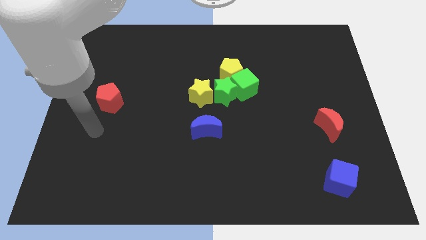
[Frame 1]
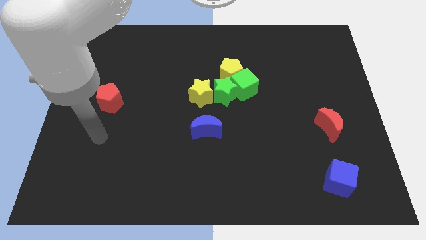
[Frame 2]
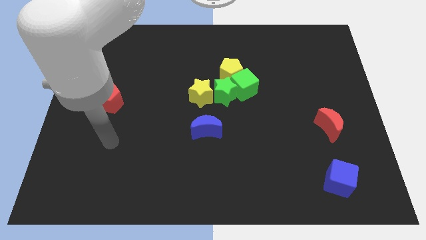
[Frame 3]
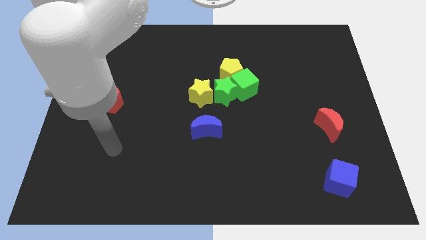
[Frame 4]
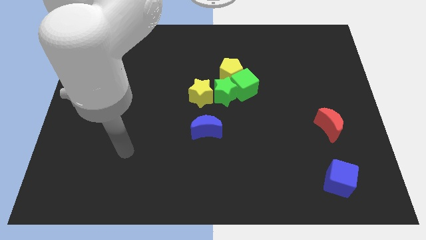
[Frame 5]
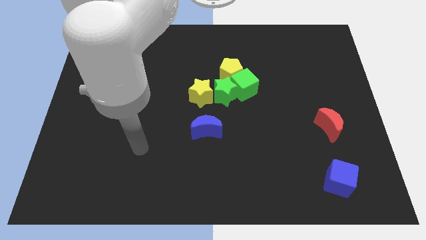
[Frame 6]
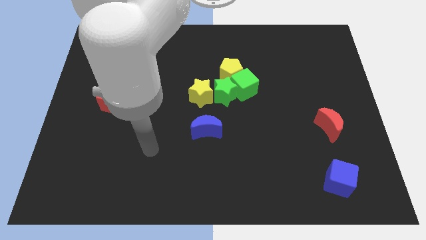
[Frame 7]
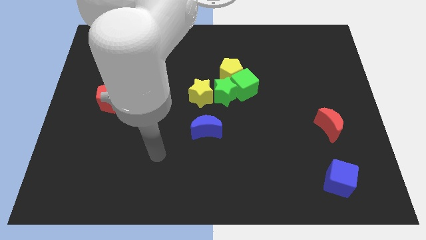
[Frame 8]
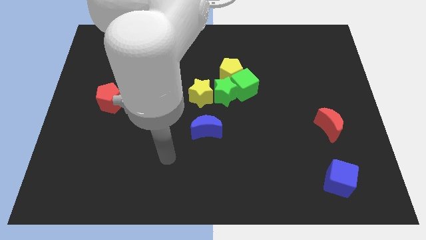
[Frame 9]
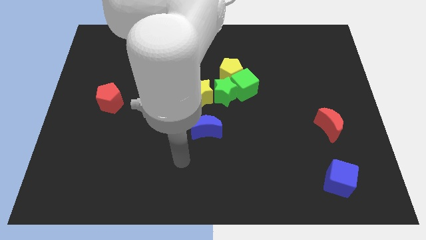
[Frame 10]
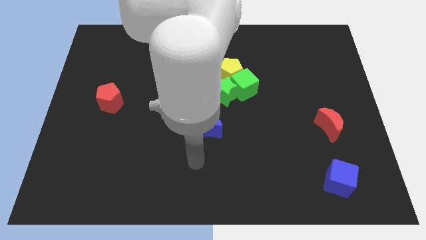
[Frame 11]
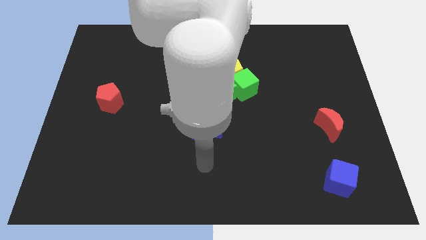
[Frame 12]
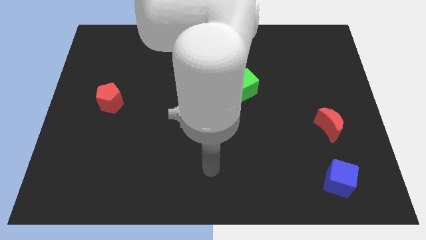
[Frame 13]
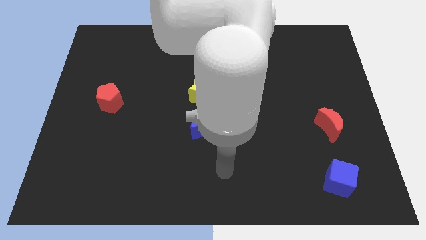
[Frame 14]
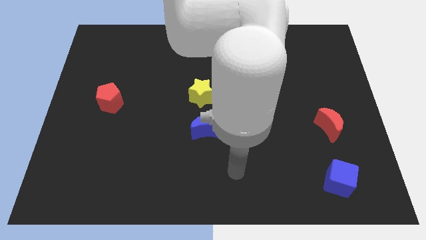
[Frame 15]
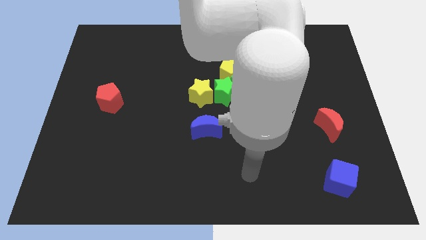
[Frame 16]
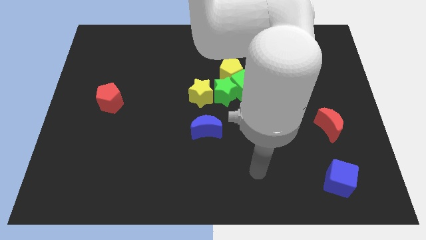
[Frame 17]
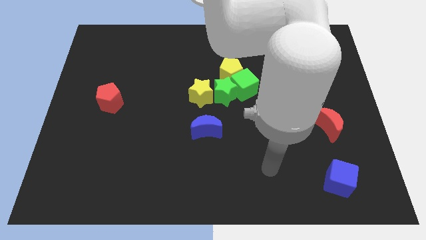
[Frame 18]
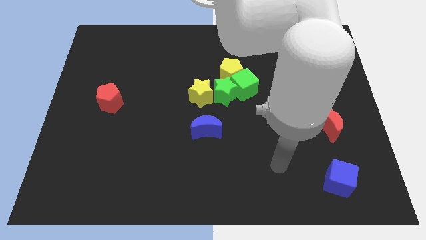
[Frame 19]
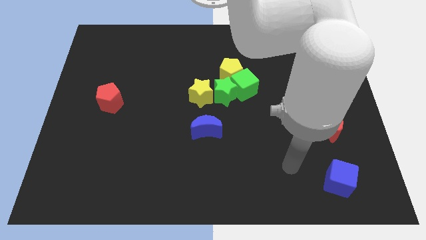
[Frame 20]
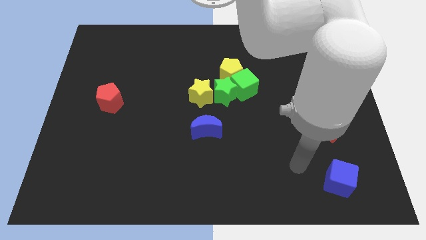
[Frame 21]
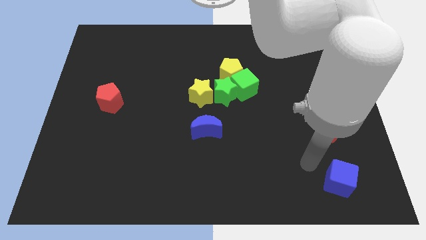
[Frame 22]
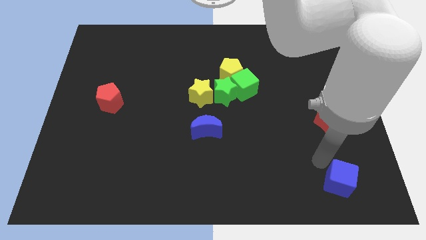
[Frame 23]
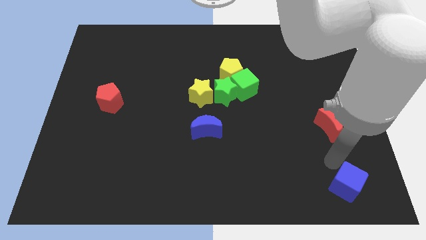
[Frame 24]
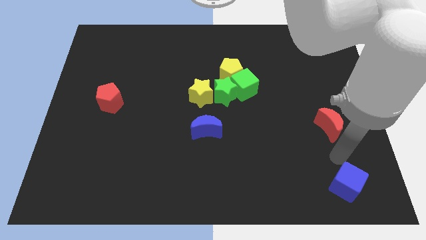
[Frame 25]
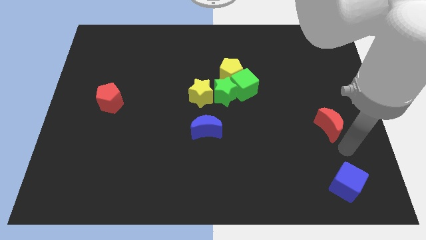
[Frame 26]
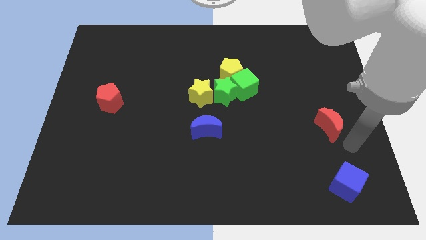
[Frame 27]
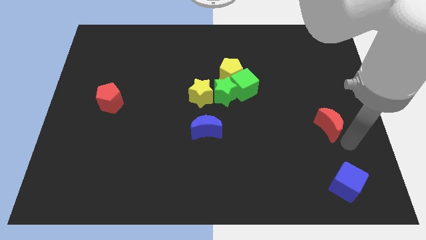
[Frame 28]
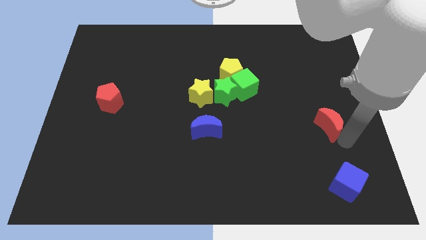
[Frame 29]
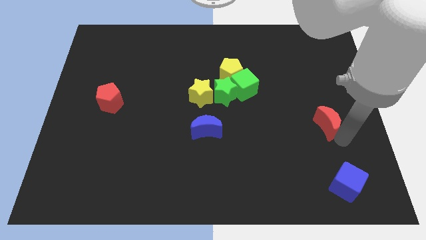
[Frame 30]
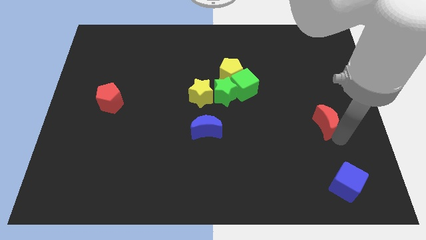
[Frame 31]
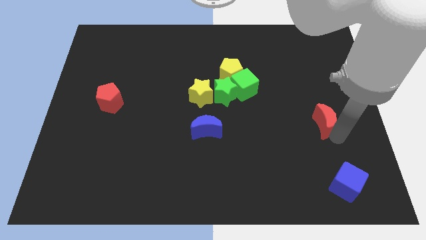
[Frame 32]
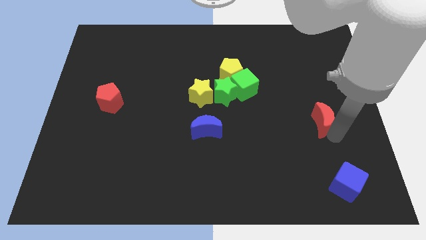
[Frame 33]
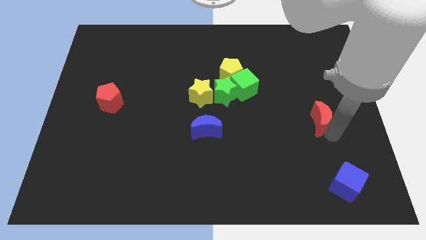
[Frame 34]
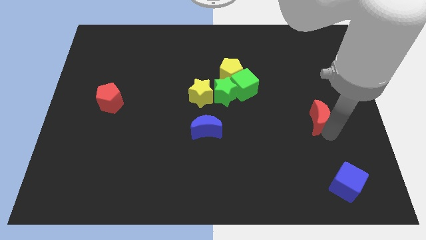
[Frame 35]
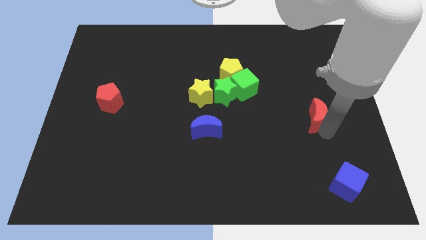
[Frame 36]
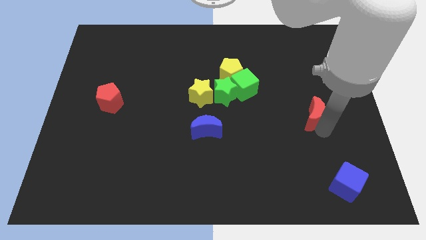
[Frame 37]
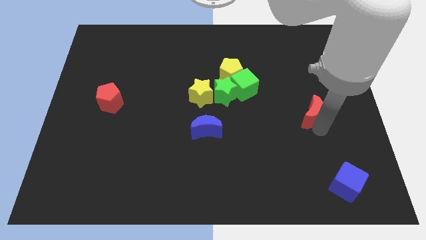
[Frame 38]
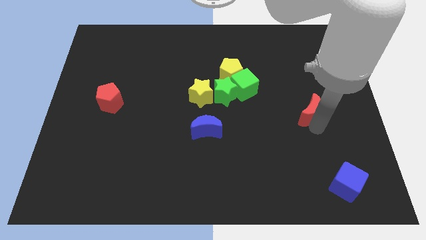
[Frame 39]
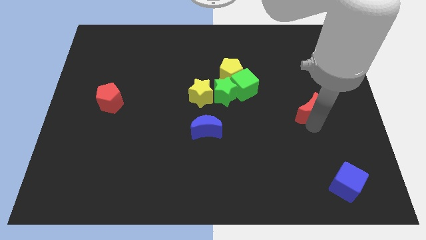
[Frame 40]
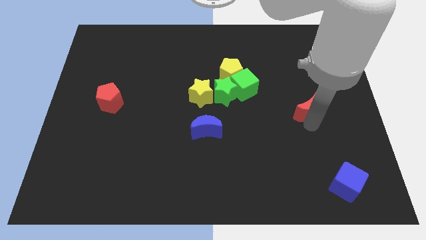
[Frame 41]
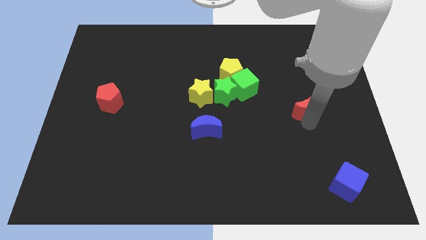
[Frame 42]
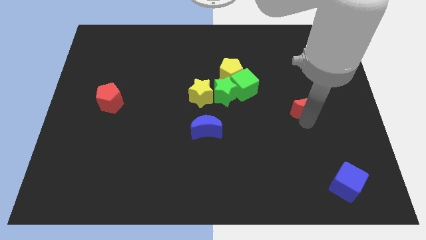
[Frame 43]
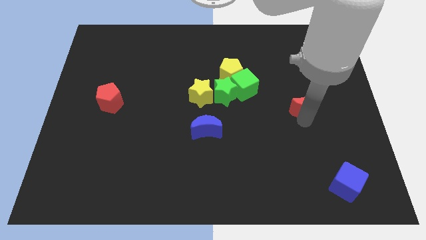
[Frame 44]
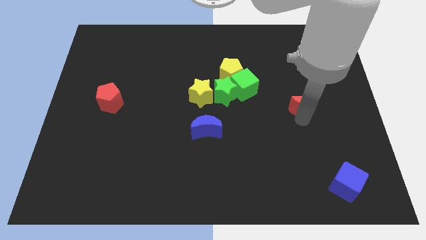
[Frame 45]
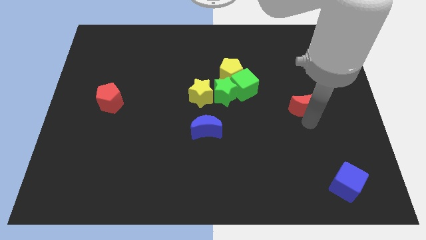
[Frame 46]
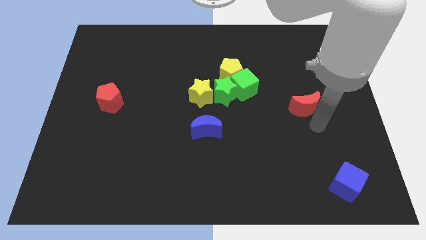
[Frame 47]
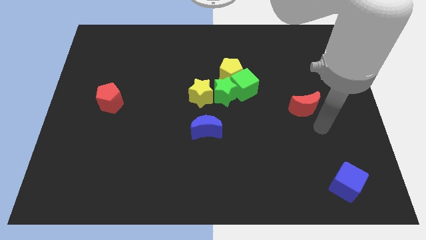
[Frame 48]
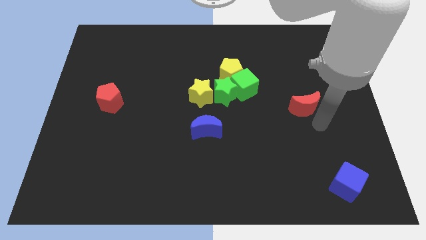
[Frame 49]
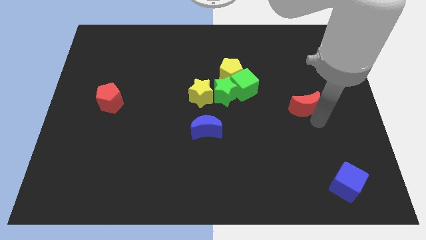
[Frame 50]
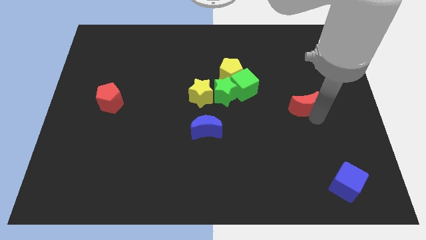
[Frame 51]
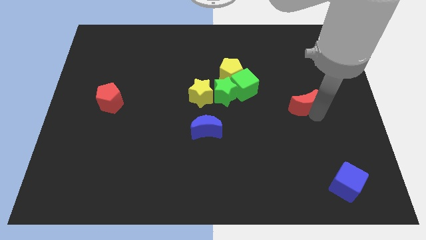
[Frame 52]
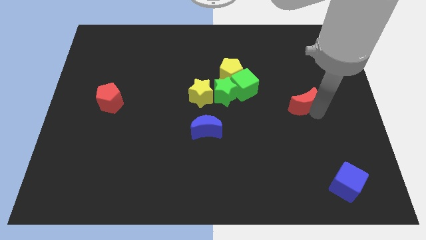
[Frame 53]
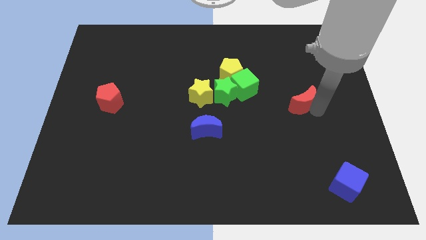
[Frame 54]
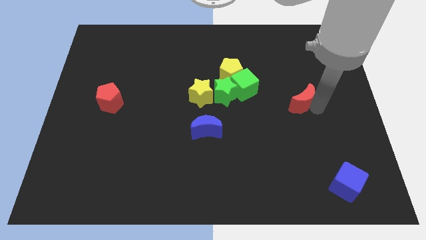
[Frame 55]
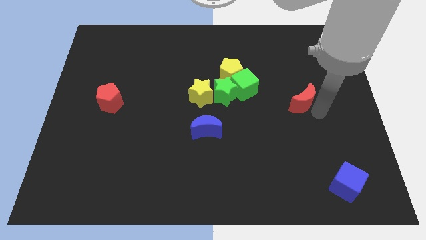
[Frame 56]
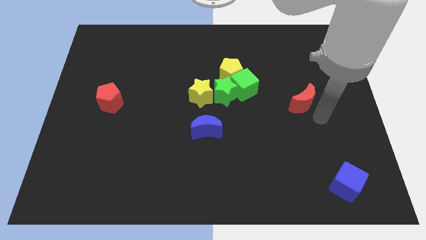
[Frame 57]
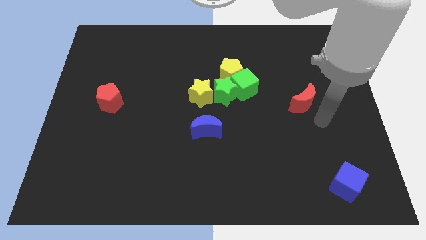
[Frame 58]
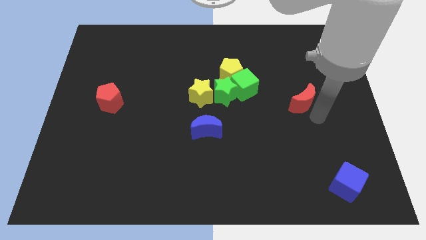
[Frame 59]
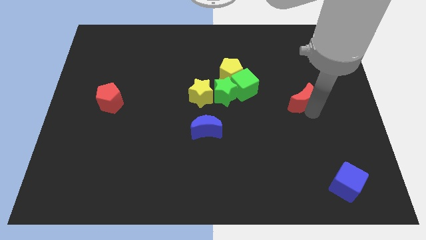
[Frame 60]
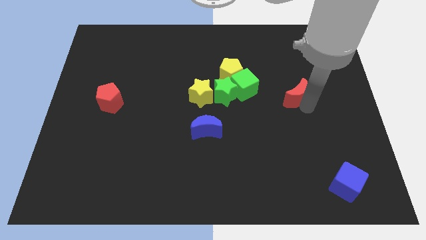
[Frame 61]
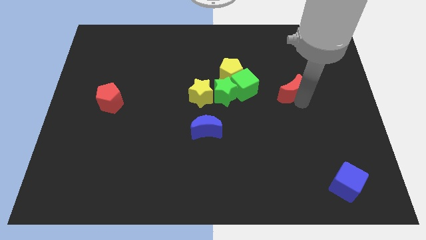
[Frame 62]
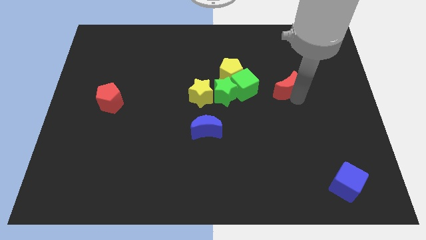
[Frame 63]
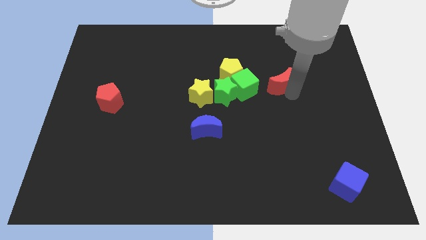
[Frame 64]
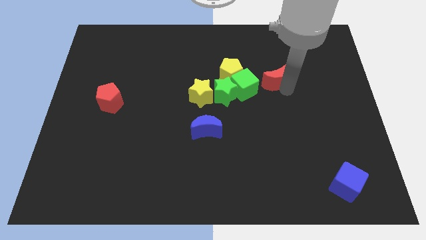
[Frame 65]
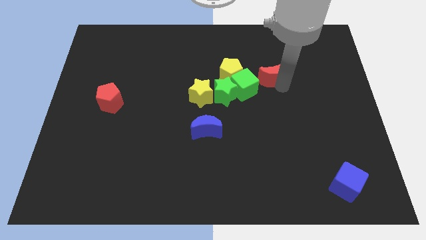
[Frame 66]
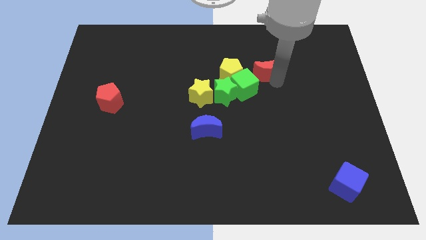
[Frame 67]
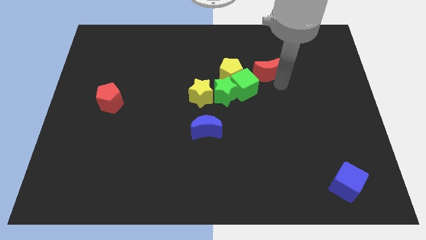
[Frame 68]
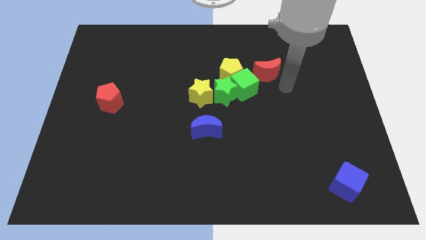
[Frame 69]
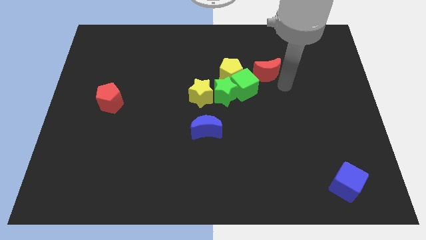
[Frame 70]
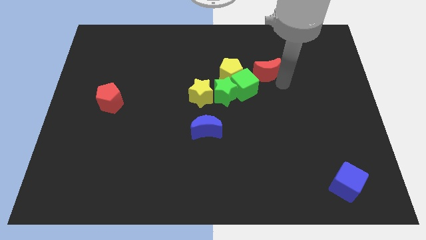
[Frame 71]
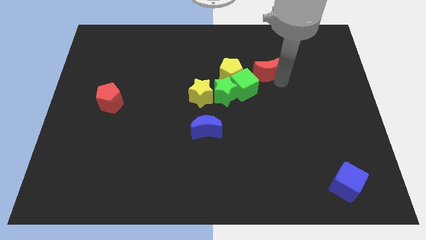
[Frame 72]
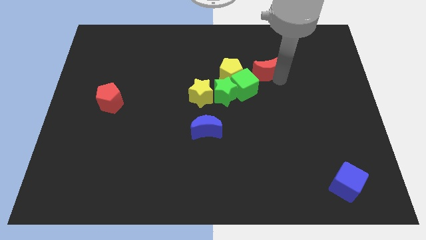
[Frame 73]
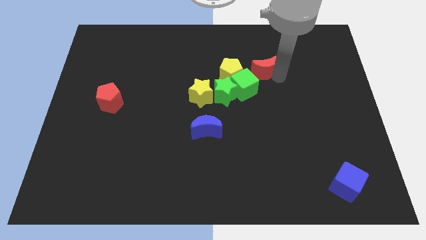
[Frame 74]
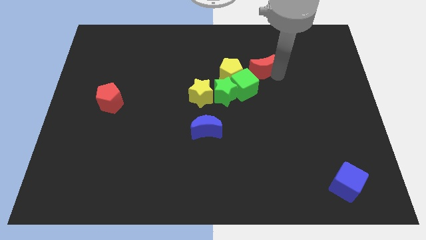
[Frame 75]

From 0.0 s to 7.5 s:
push the red moon to the top right side of the yellow pentagon
